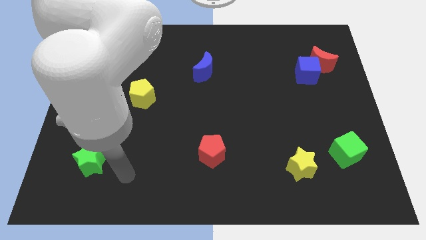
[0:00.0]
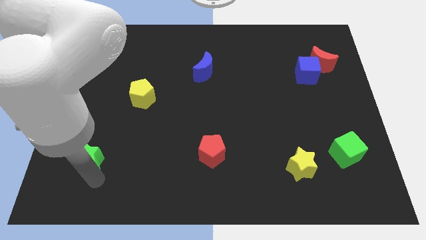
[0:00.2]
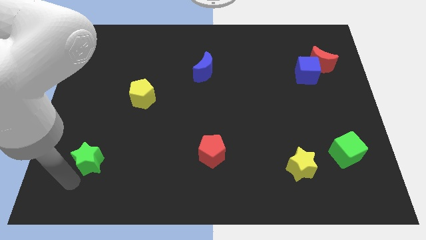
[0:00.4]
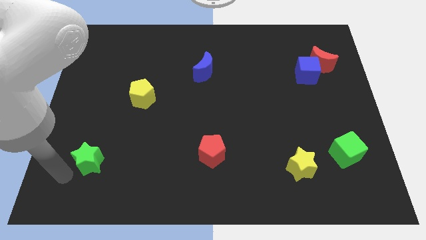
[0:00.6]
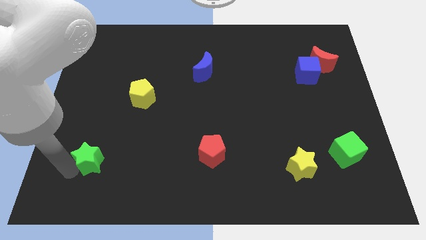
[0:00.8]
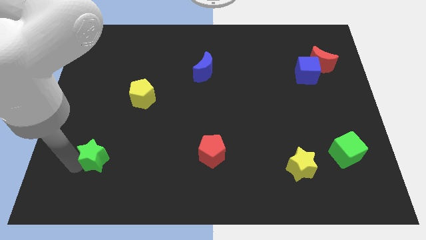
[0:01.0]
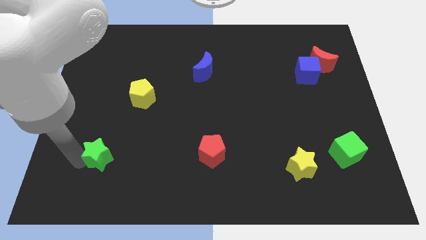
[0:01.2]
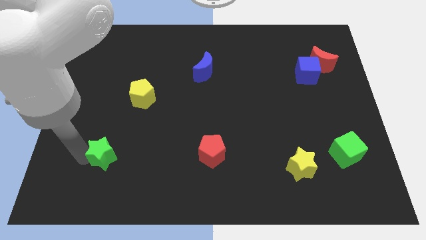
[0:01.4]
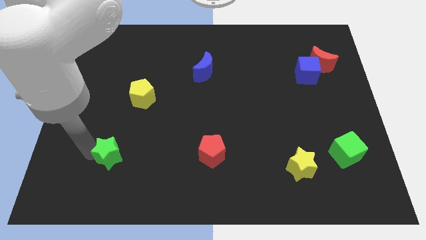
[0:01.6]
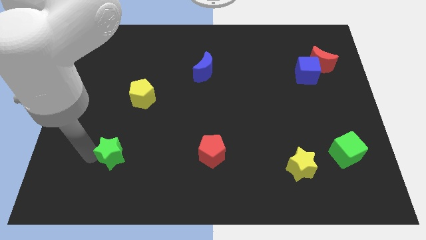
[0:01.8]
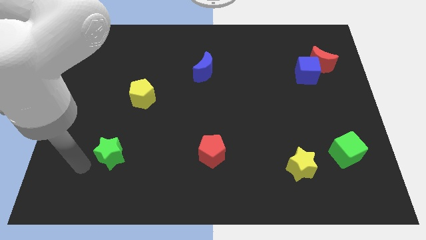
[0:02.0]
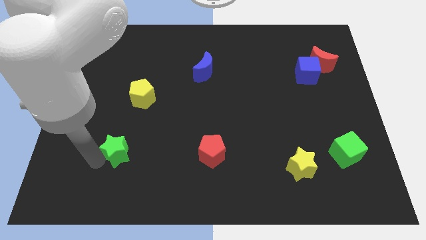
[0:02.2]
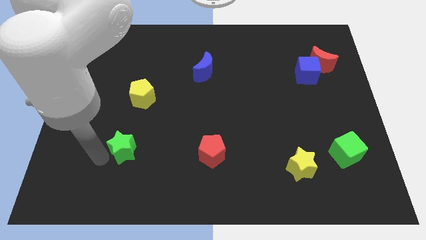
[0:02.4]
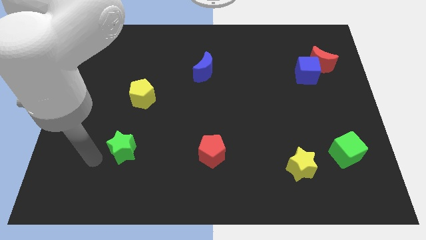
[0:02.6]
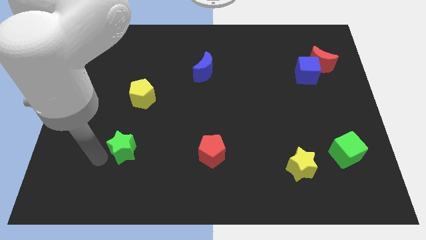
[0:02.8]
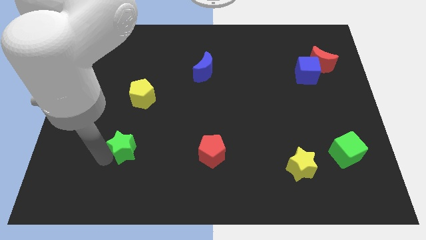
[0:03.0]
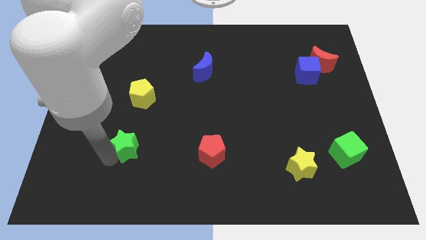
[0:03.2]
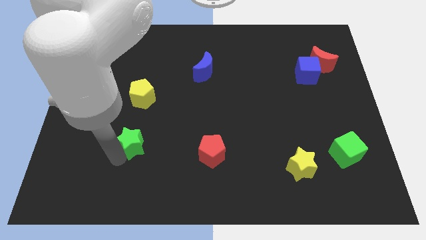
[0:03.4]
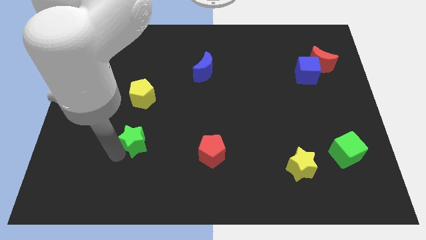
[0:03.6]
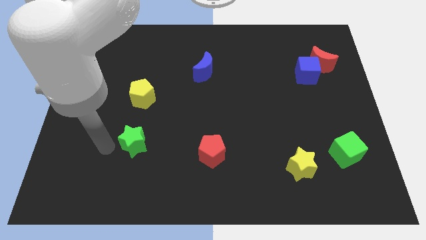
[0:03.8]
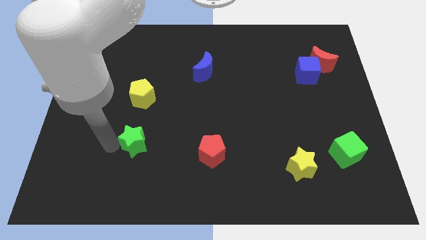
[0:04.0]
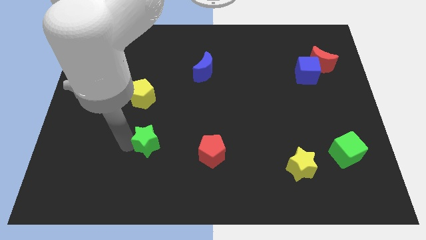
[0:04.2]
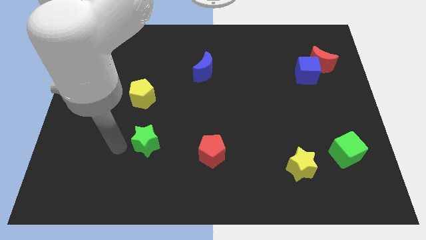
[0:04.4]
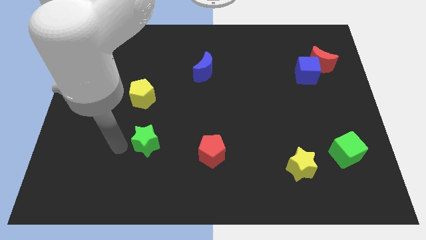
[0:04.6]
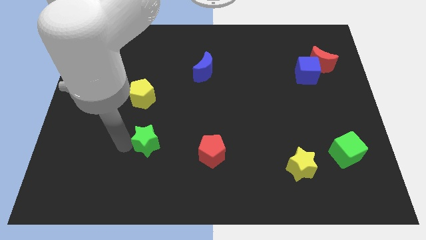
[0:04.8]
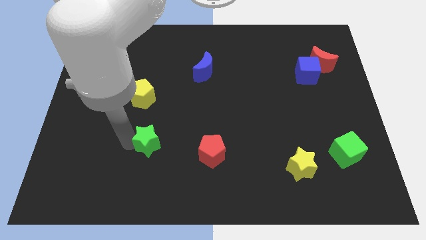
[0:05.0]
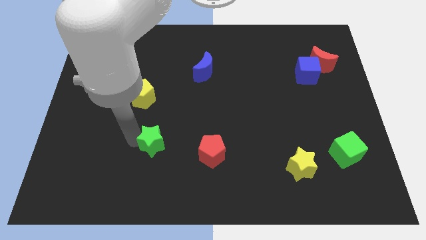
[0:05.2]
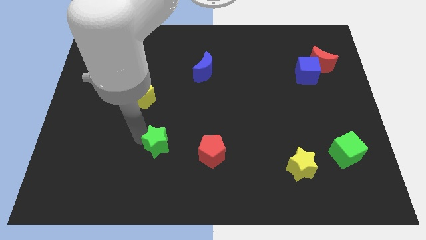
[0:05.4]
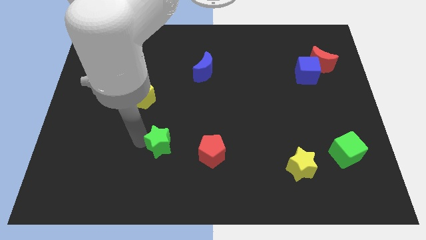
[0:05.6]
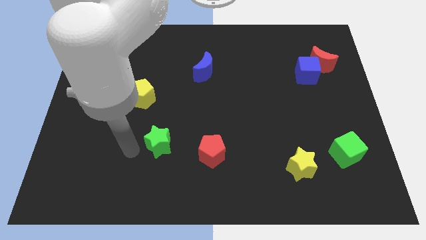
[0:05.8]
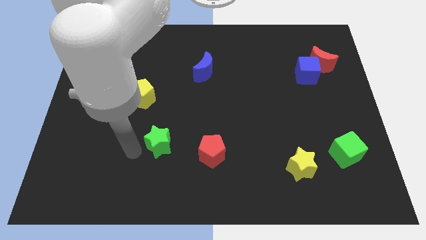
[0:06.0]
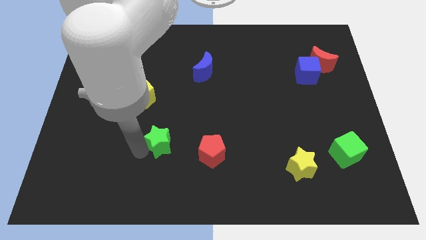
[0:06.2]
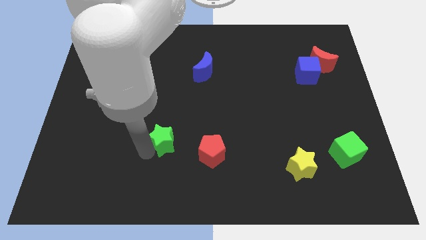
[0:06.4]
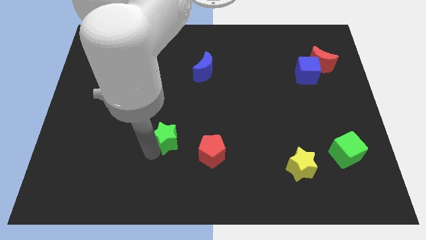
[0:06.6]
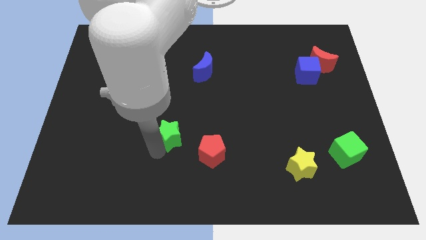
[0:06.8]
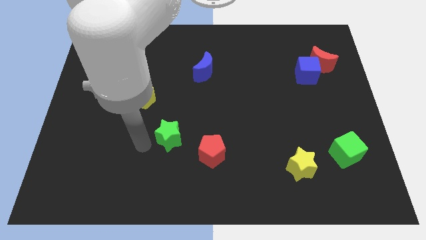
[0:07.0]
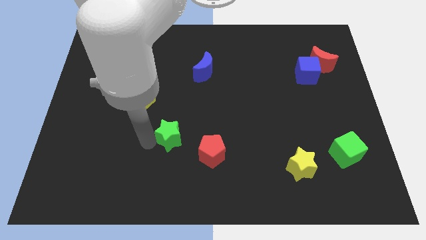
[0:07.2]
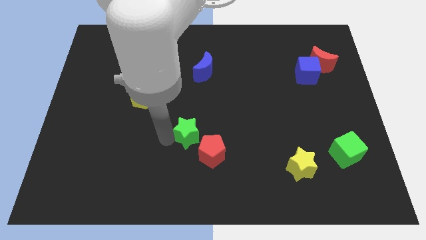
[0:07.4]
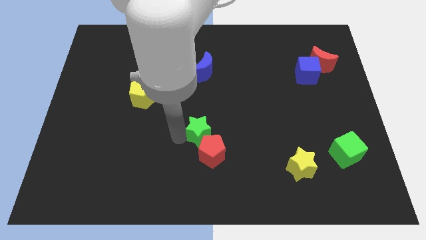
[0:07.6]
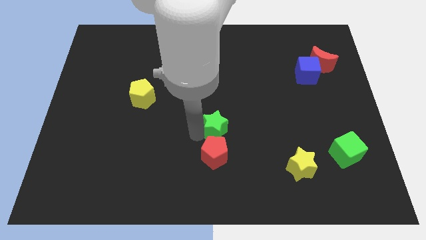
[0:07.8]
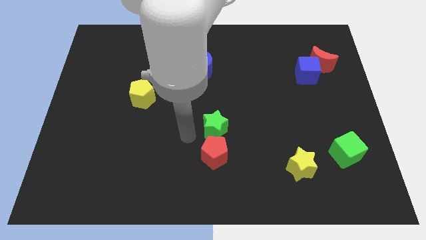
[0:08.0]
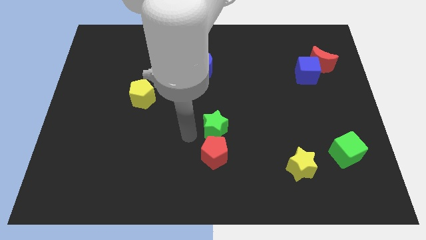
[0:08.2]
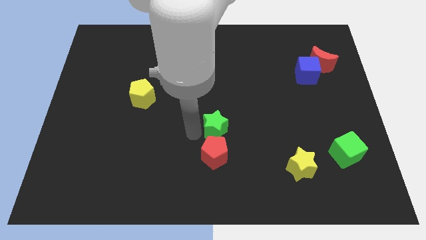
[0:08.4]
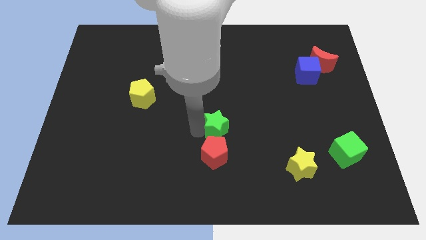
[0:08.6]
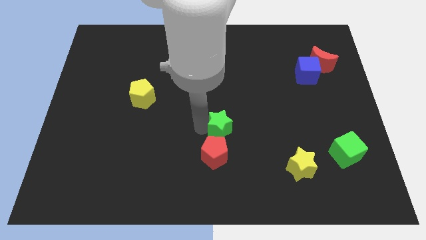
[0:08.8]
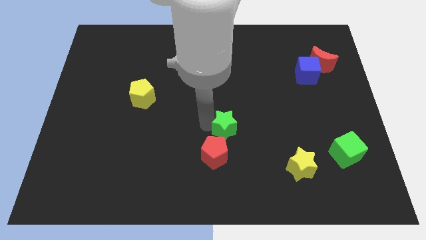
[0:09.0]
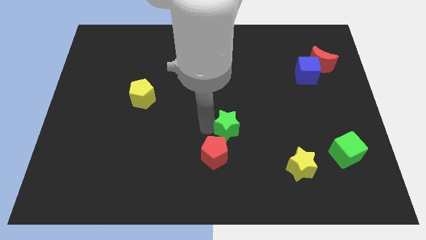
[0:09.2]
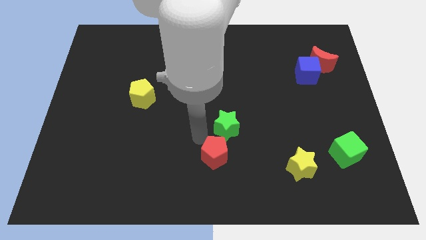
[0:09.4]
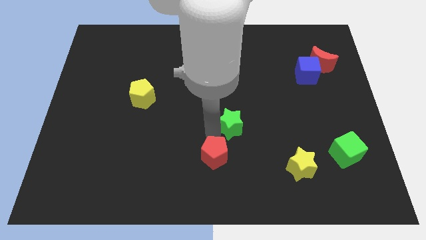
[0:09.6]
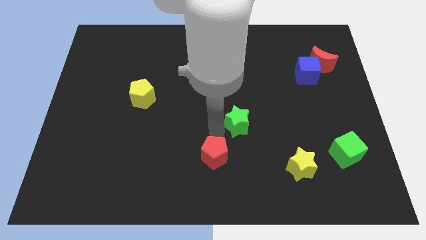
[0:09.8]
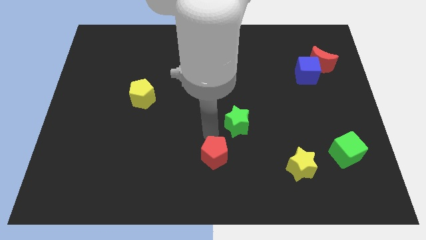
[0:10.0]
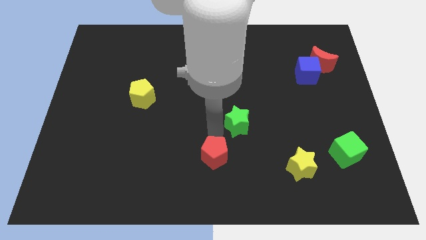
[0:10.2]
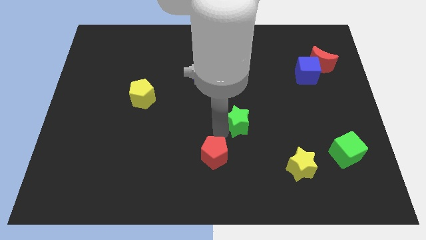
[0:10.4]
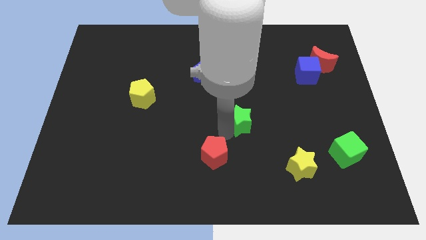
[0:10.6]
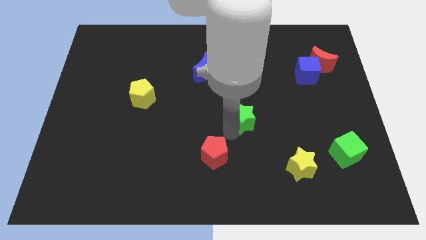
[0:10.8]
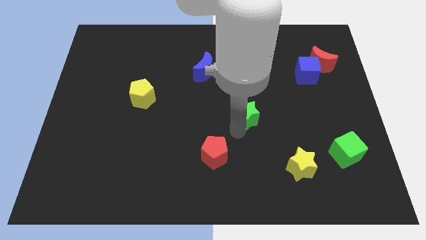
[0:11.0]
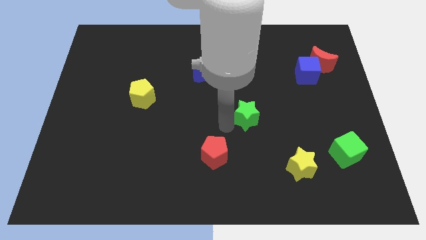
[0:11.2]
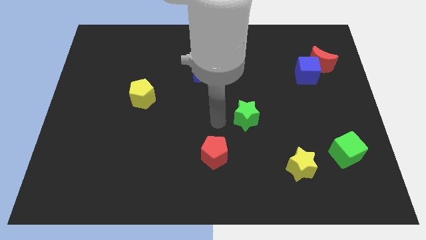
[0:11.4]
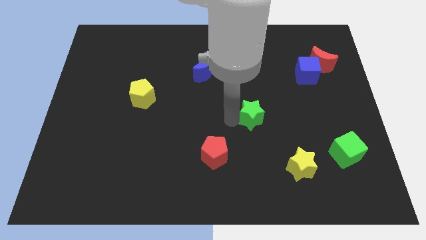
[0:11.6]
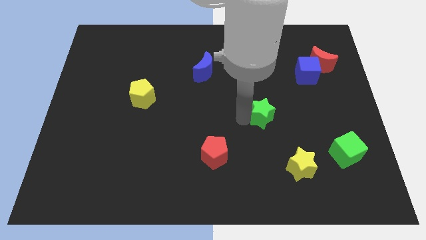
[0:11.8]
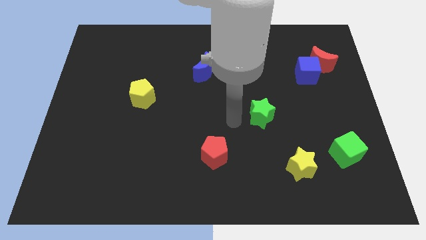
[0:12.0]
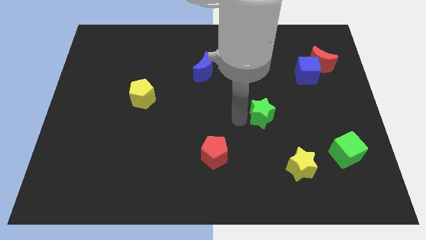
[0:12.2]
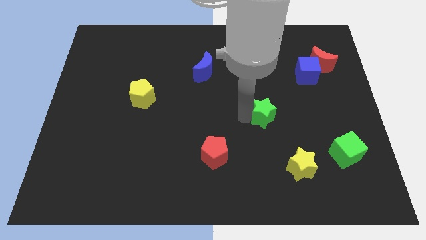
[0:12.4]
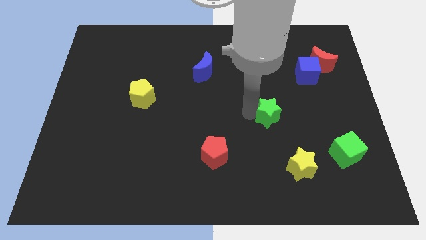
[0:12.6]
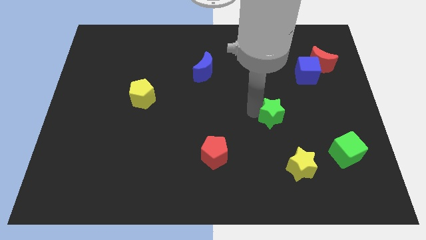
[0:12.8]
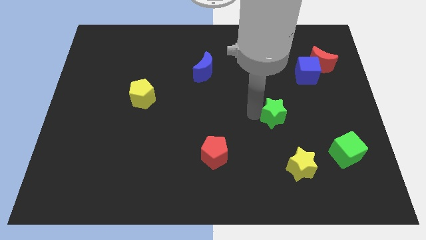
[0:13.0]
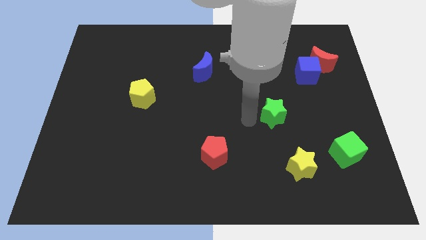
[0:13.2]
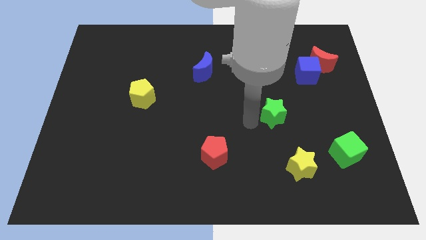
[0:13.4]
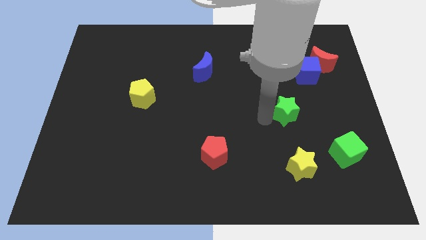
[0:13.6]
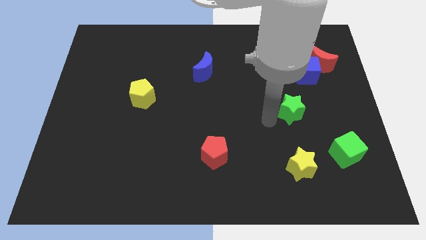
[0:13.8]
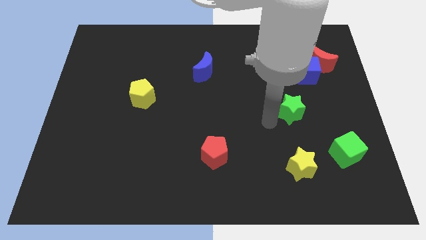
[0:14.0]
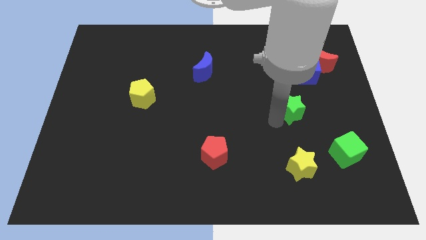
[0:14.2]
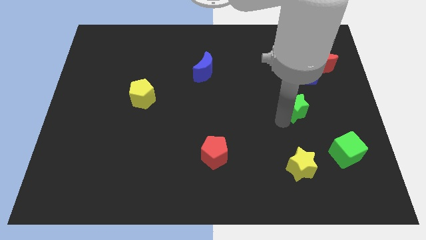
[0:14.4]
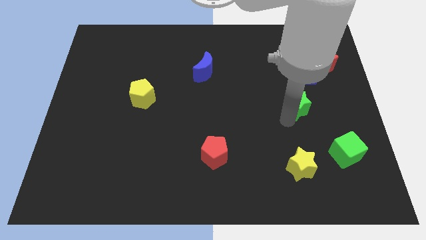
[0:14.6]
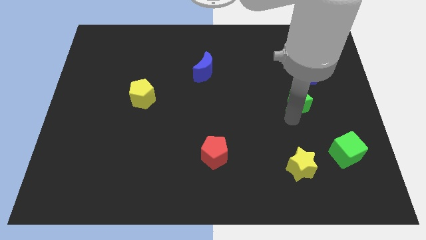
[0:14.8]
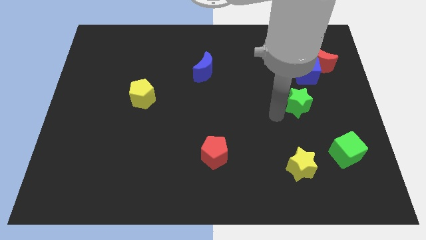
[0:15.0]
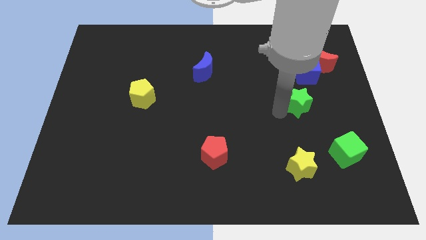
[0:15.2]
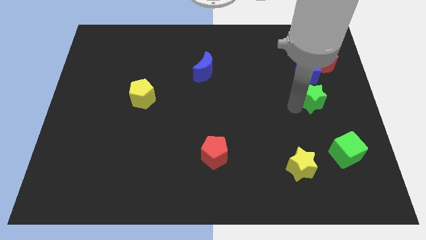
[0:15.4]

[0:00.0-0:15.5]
push the green star to the bottom of the red moon

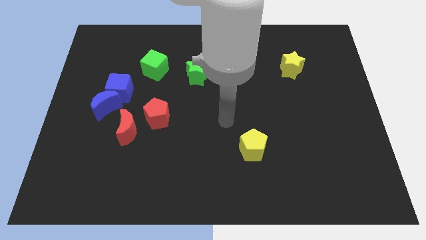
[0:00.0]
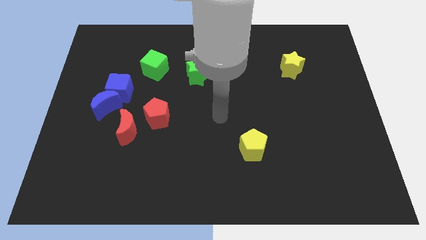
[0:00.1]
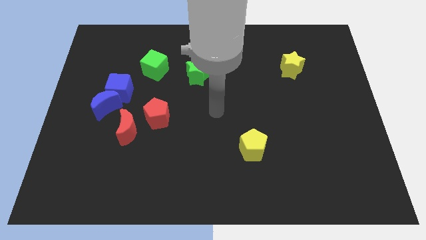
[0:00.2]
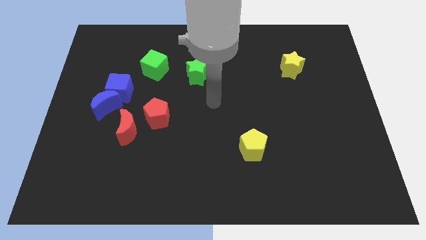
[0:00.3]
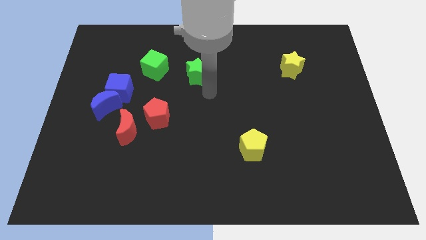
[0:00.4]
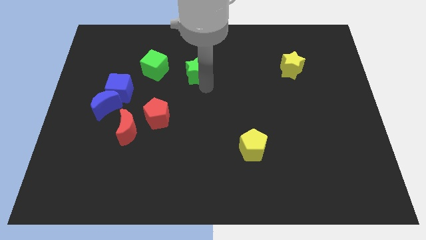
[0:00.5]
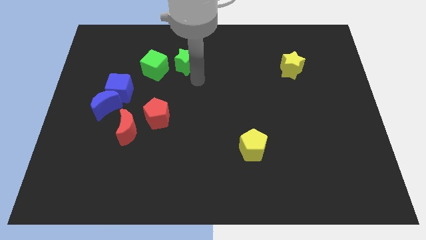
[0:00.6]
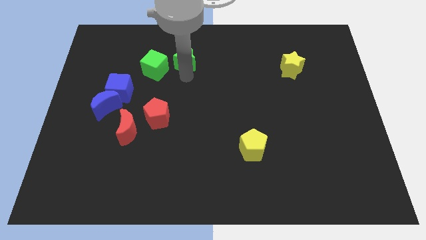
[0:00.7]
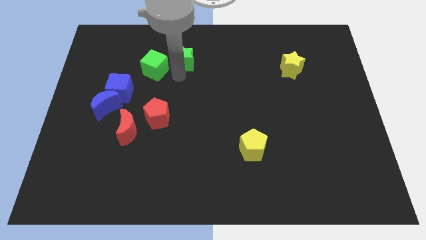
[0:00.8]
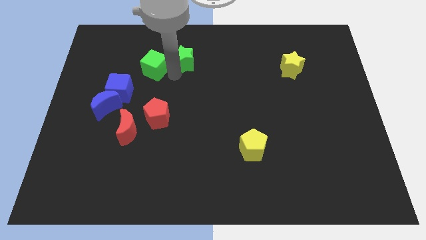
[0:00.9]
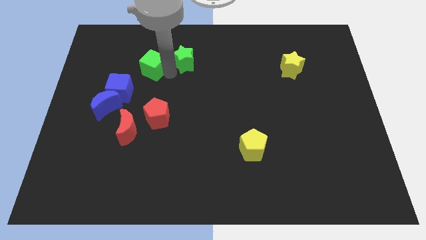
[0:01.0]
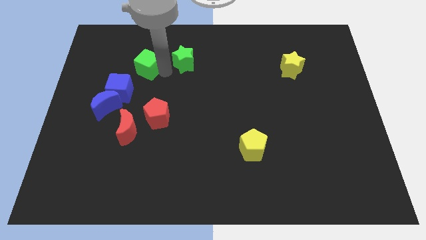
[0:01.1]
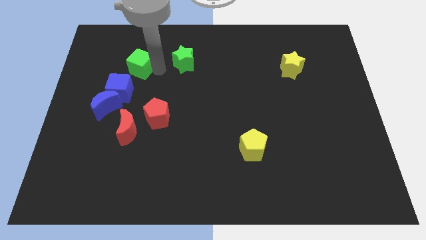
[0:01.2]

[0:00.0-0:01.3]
put the green cube to the top of the blue cube
